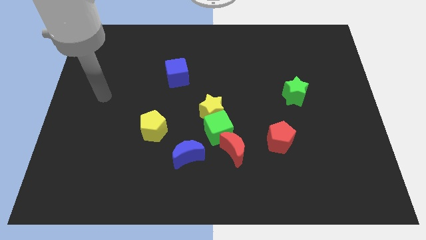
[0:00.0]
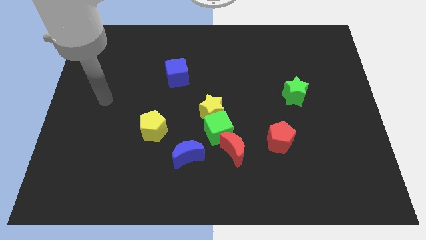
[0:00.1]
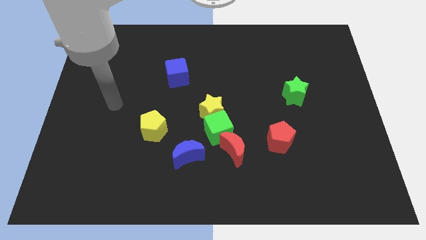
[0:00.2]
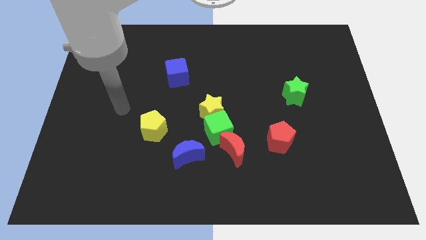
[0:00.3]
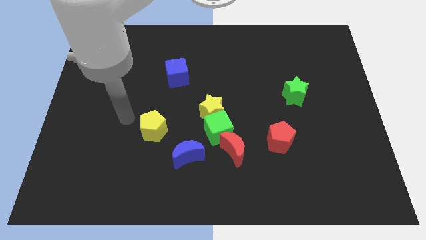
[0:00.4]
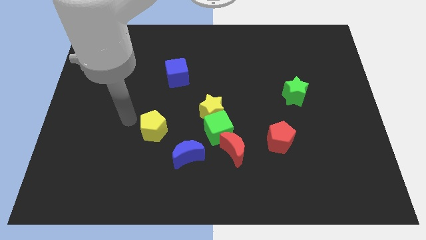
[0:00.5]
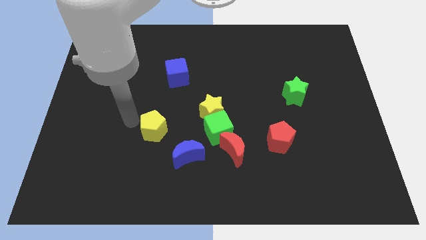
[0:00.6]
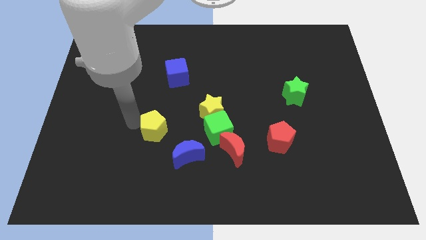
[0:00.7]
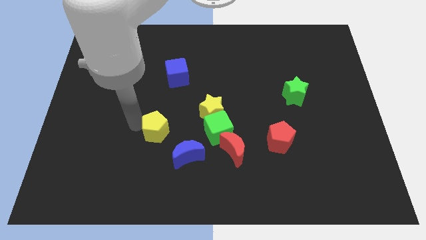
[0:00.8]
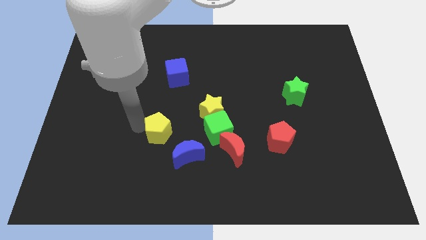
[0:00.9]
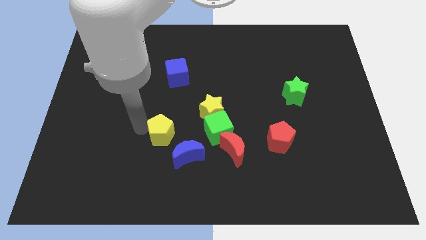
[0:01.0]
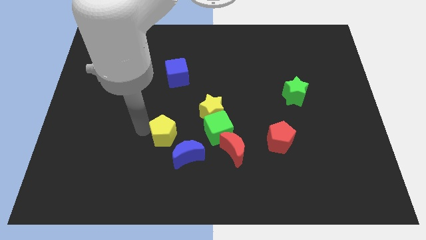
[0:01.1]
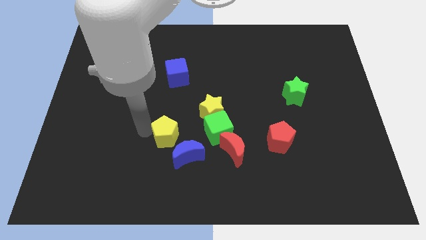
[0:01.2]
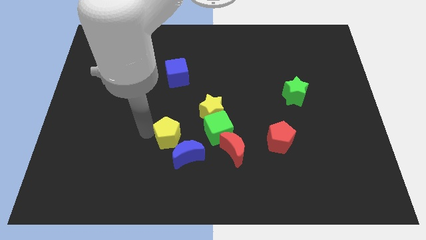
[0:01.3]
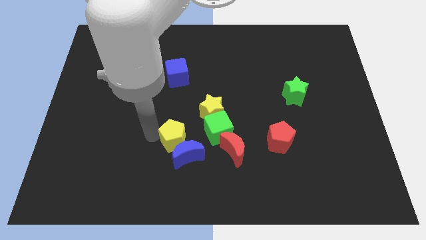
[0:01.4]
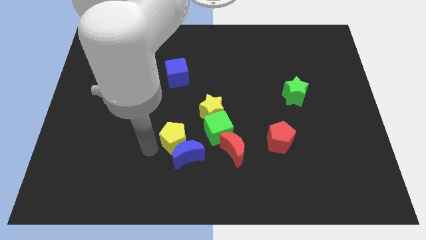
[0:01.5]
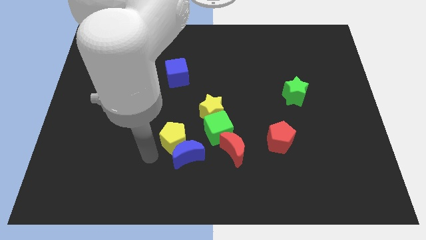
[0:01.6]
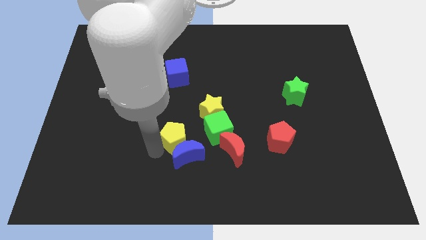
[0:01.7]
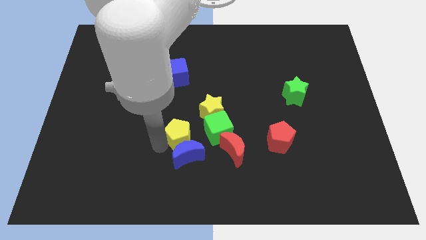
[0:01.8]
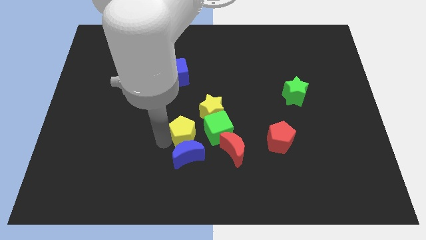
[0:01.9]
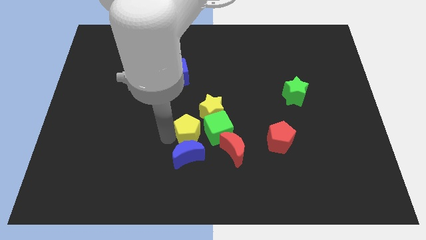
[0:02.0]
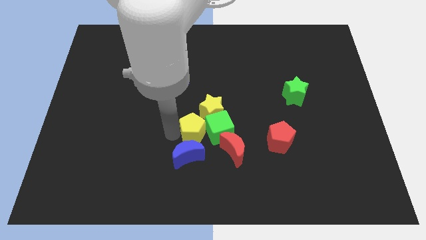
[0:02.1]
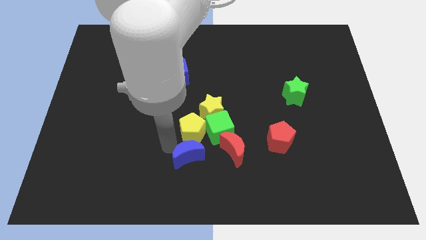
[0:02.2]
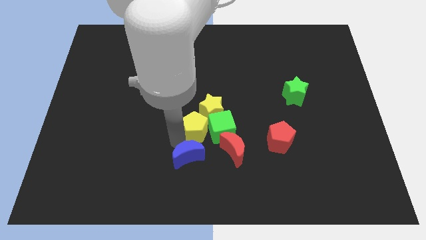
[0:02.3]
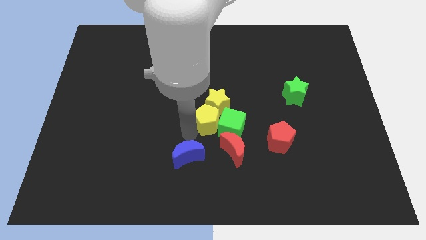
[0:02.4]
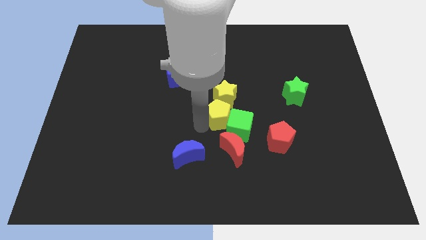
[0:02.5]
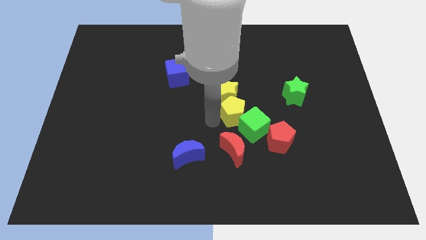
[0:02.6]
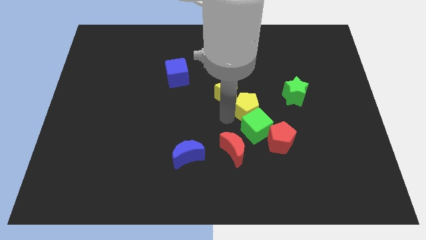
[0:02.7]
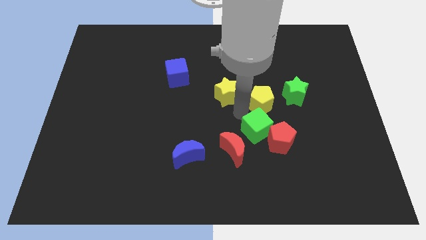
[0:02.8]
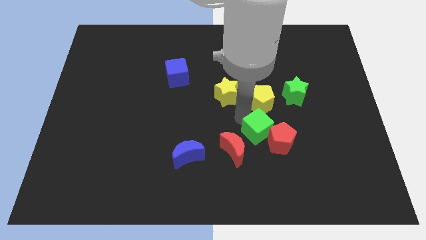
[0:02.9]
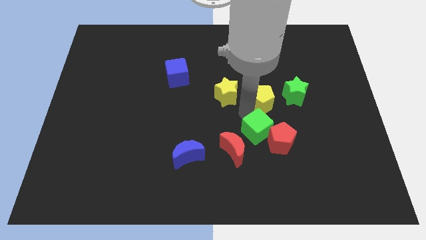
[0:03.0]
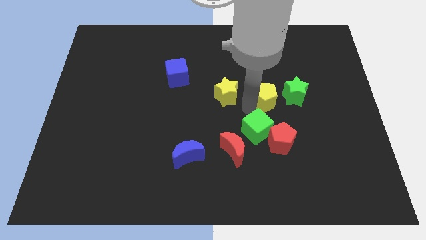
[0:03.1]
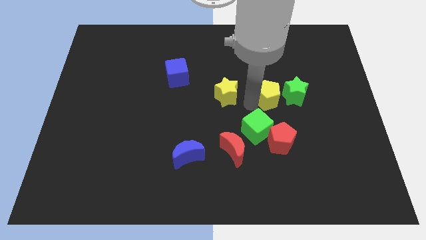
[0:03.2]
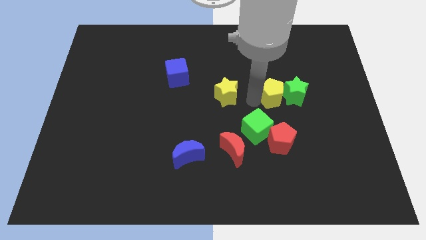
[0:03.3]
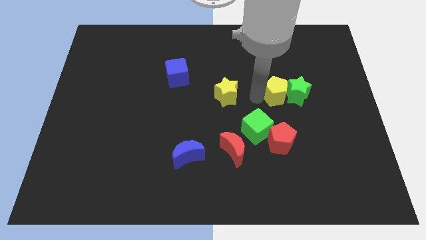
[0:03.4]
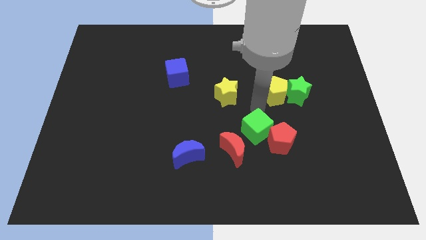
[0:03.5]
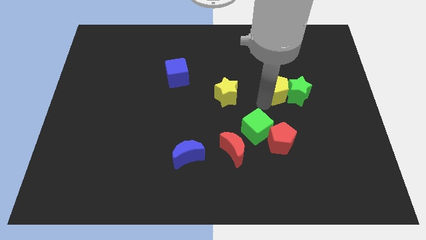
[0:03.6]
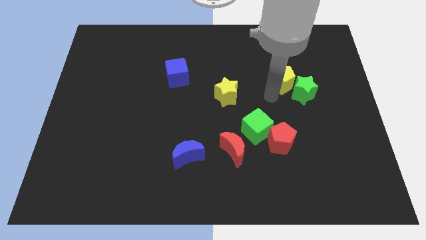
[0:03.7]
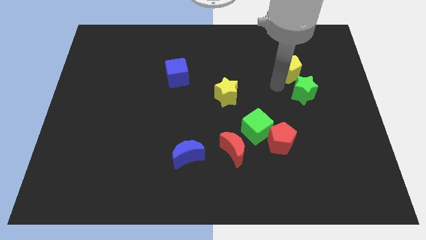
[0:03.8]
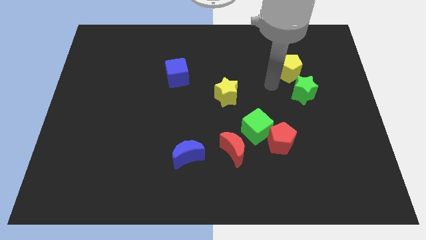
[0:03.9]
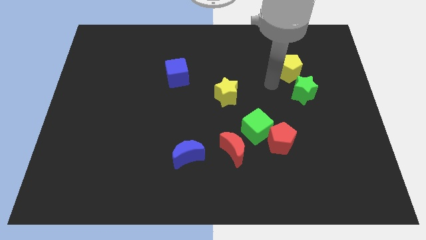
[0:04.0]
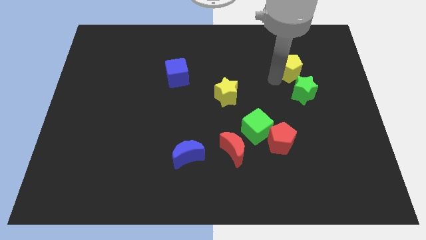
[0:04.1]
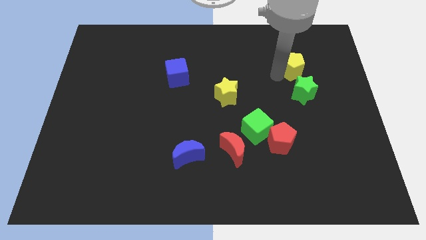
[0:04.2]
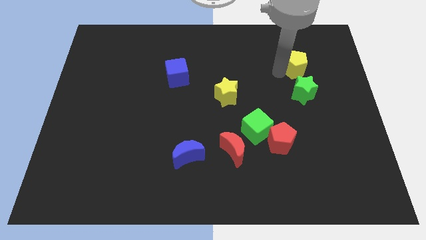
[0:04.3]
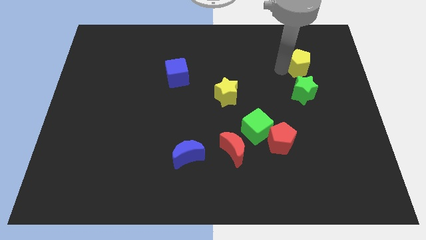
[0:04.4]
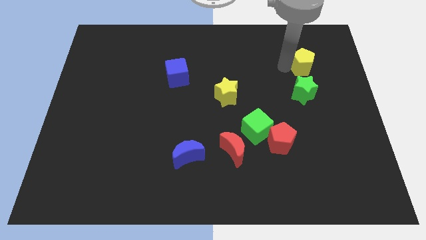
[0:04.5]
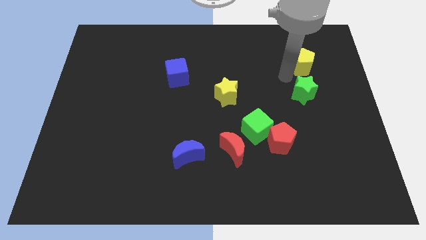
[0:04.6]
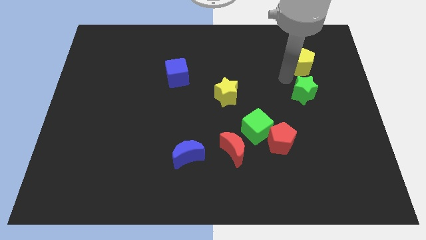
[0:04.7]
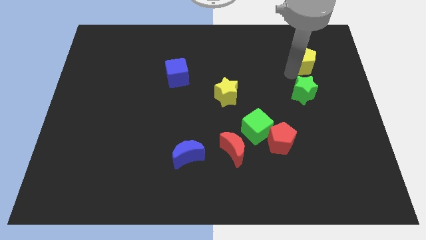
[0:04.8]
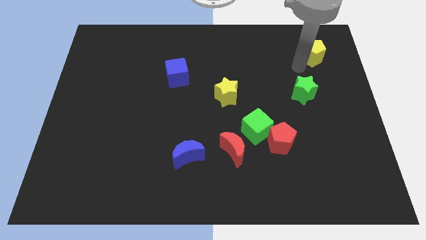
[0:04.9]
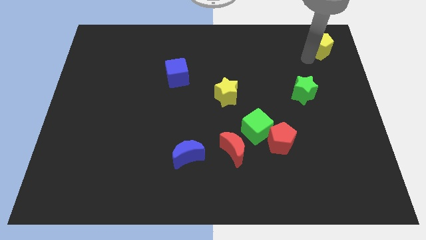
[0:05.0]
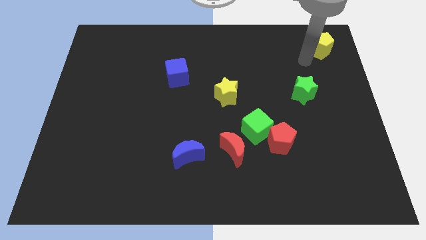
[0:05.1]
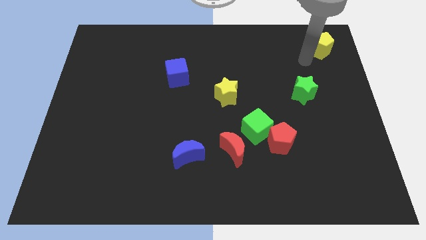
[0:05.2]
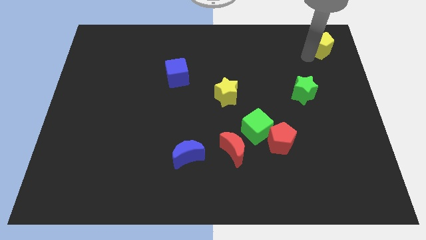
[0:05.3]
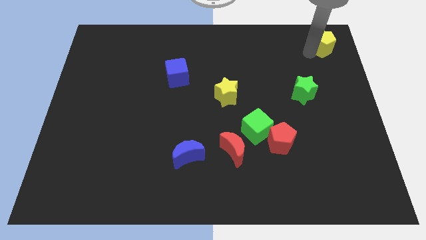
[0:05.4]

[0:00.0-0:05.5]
push the yellow pentagon to the top right of the board

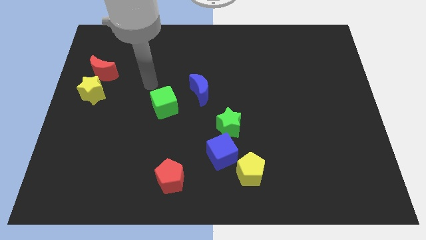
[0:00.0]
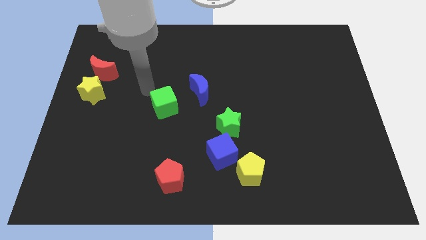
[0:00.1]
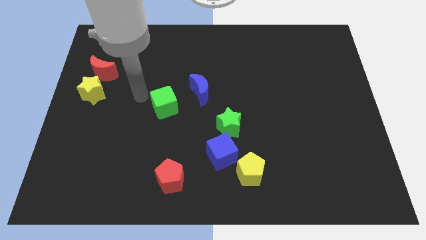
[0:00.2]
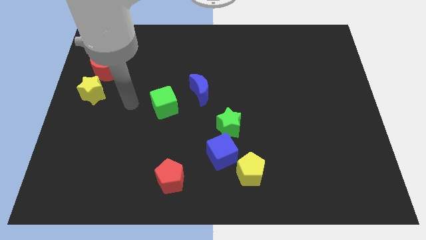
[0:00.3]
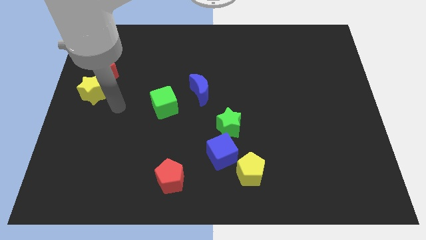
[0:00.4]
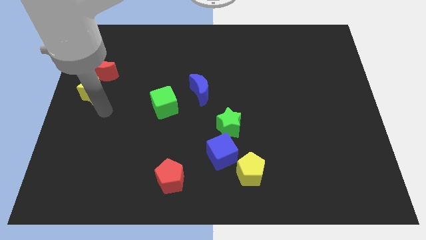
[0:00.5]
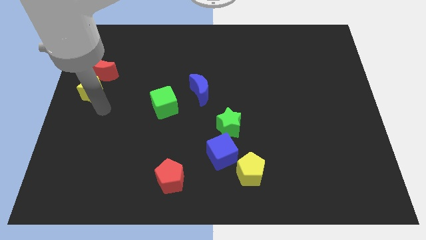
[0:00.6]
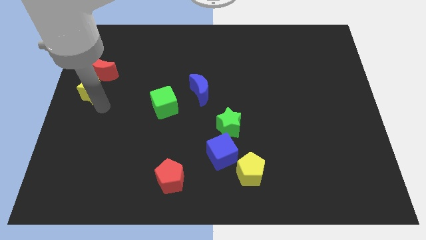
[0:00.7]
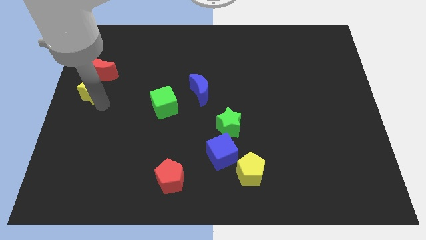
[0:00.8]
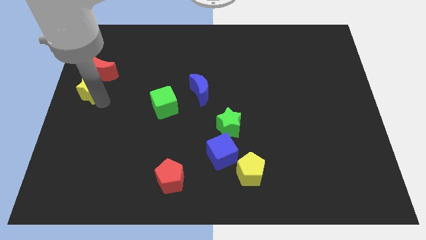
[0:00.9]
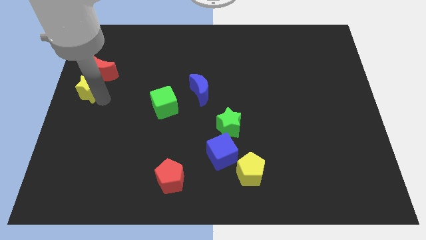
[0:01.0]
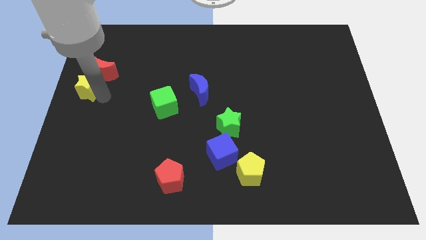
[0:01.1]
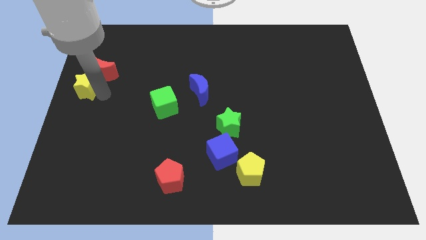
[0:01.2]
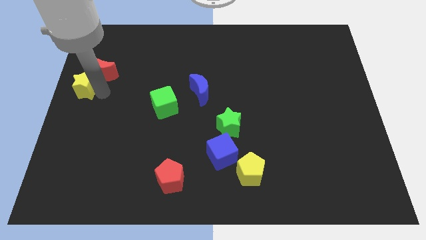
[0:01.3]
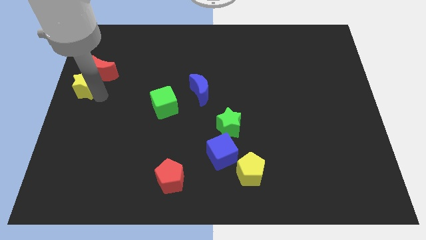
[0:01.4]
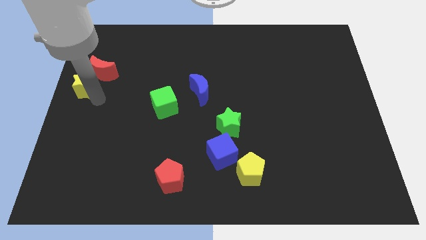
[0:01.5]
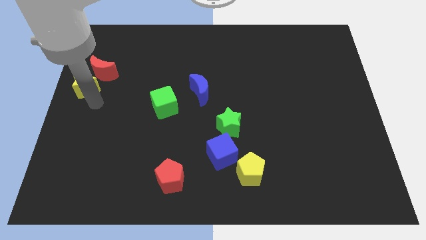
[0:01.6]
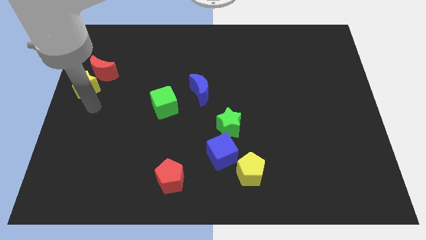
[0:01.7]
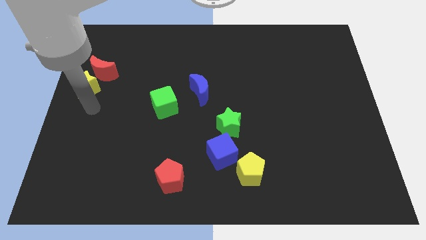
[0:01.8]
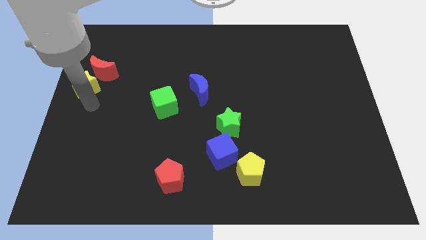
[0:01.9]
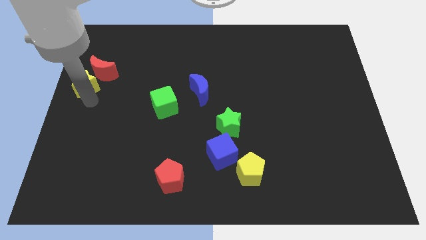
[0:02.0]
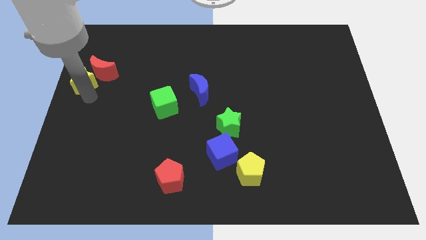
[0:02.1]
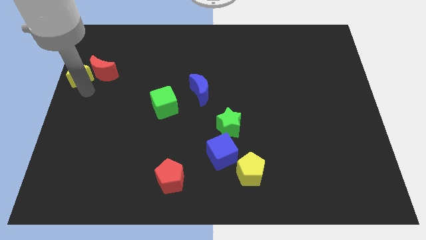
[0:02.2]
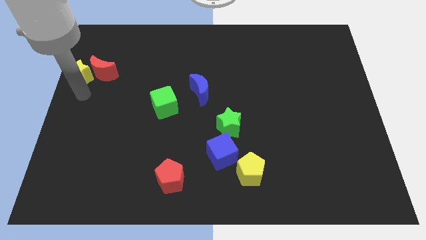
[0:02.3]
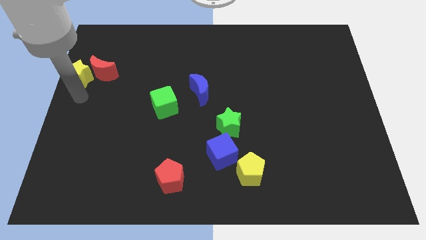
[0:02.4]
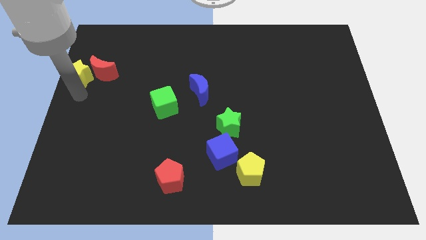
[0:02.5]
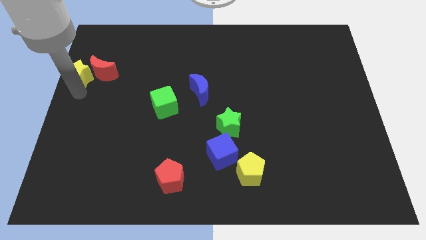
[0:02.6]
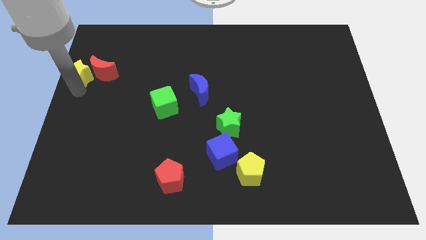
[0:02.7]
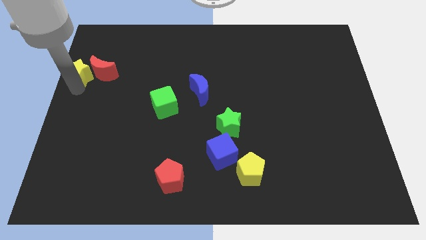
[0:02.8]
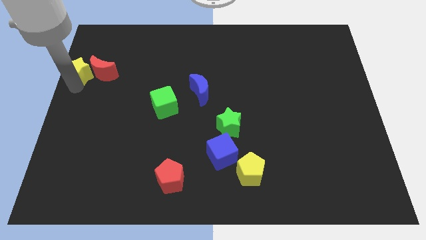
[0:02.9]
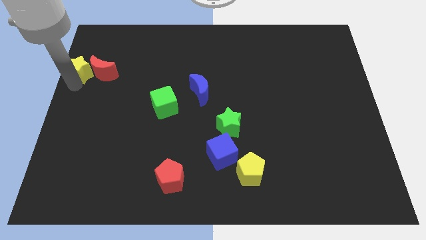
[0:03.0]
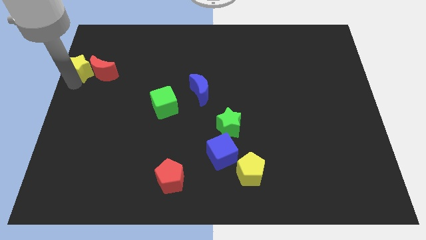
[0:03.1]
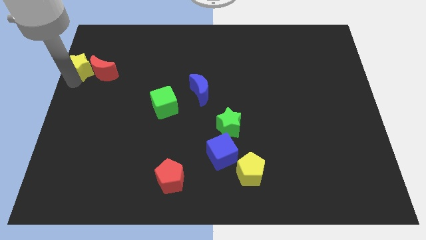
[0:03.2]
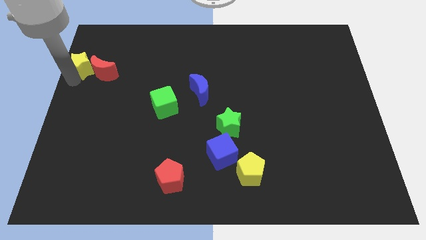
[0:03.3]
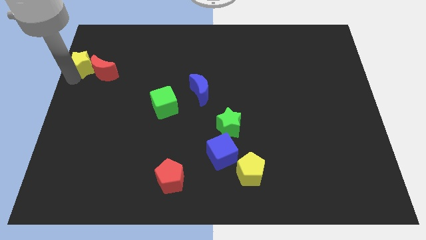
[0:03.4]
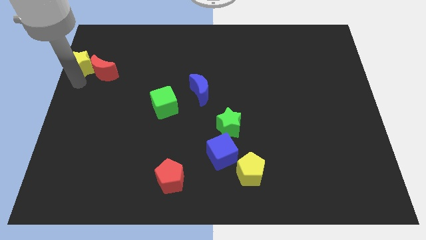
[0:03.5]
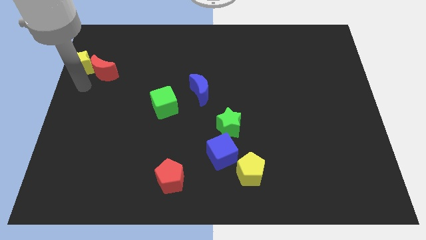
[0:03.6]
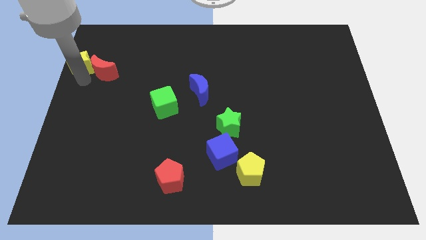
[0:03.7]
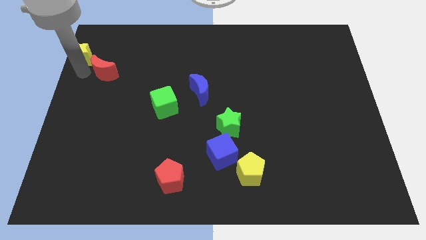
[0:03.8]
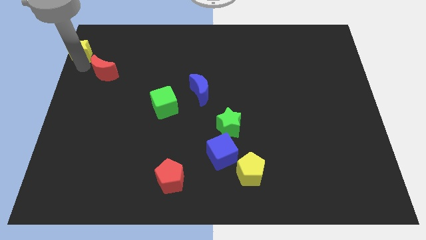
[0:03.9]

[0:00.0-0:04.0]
push the yellow star to the top left
